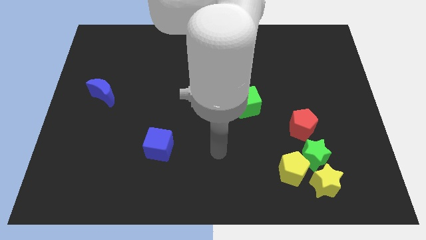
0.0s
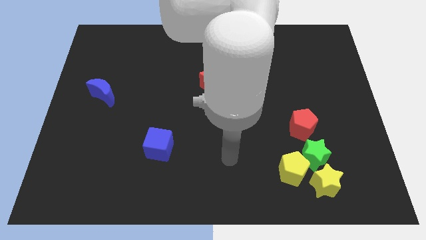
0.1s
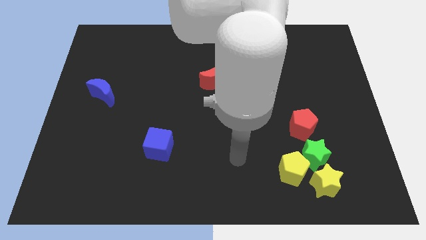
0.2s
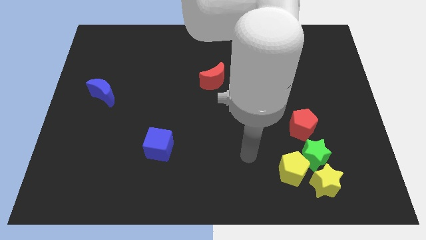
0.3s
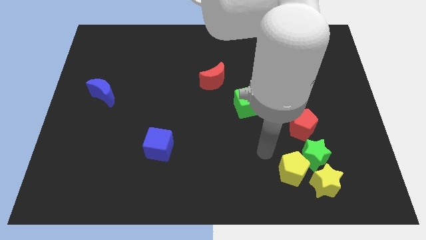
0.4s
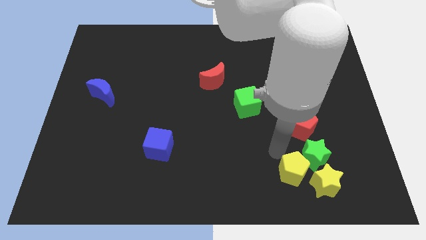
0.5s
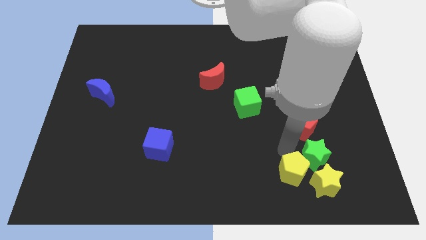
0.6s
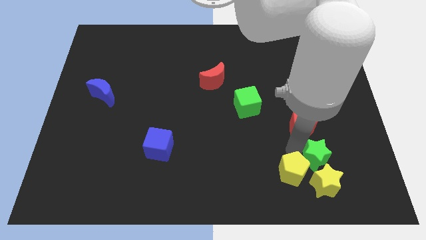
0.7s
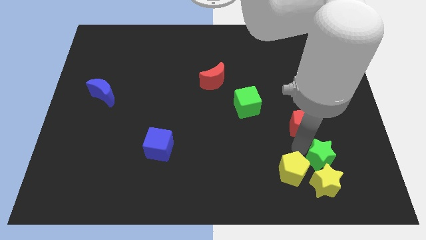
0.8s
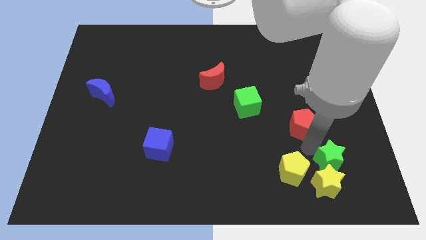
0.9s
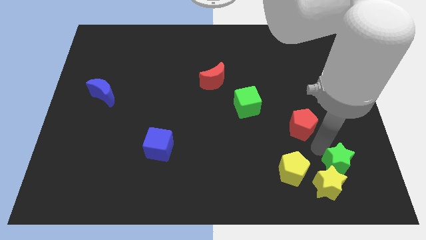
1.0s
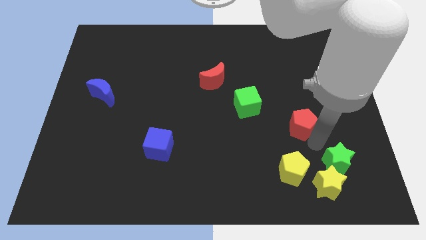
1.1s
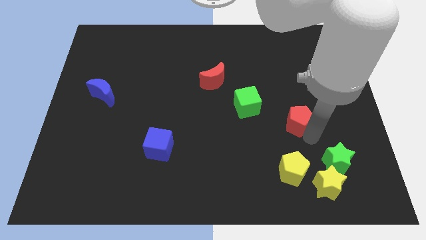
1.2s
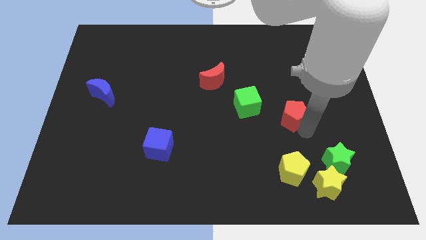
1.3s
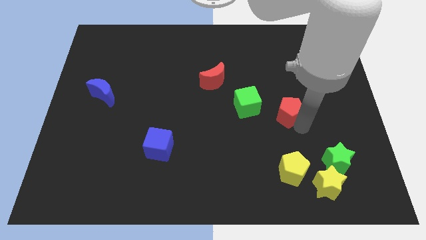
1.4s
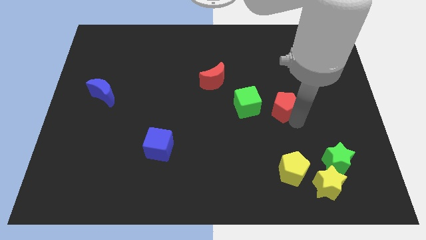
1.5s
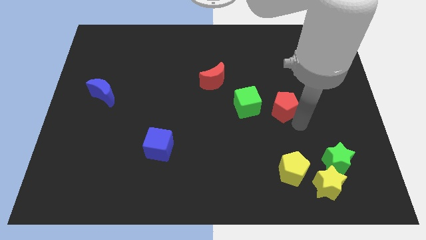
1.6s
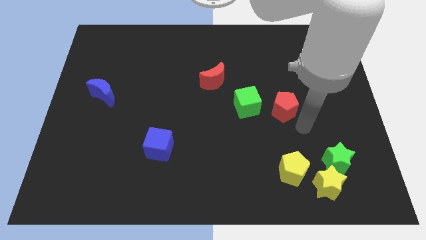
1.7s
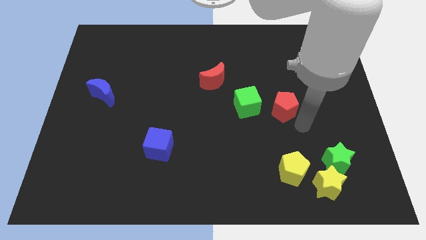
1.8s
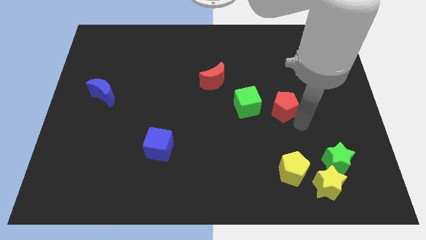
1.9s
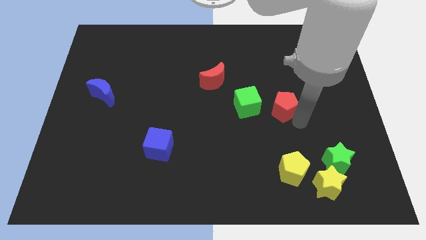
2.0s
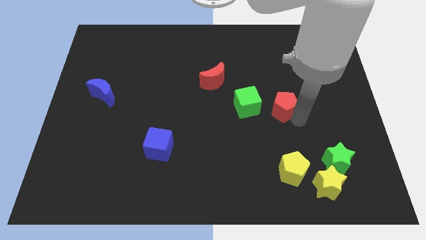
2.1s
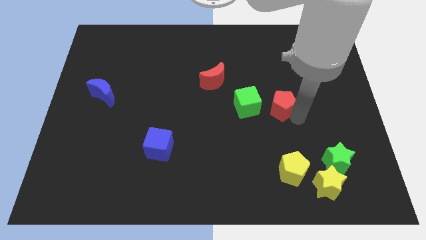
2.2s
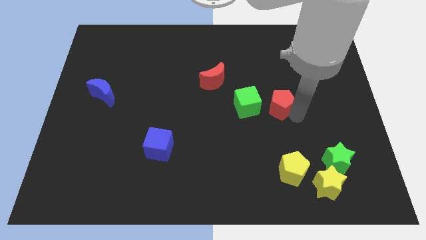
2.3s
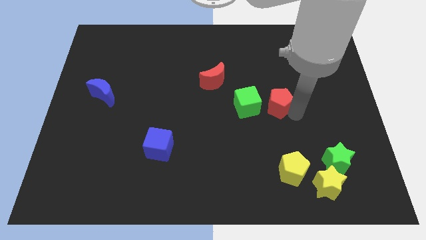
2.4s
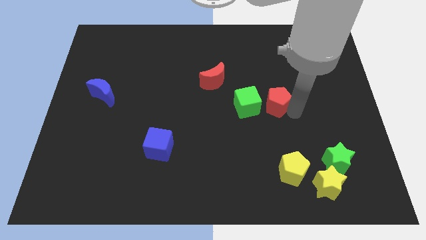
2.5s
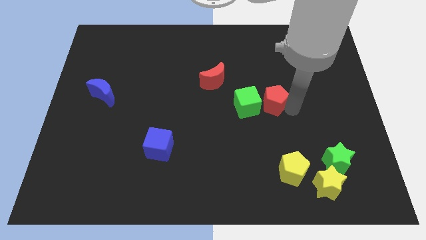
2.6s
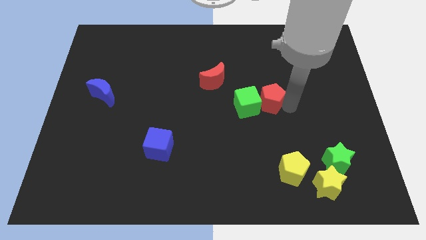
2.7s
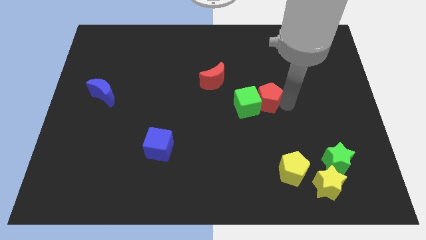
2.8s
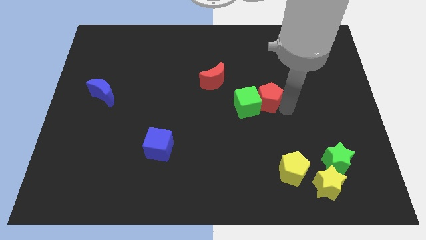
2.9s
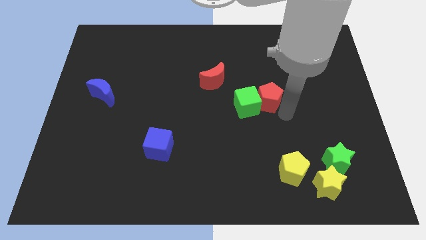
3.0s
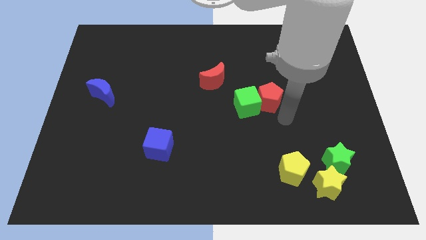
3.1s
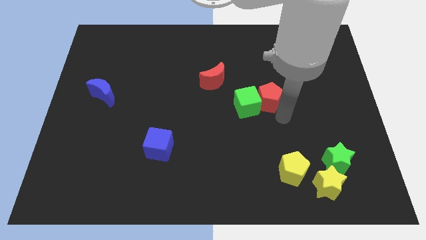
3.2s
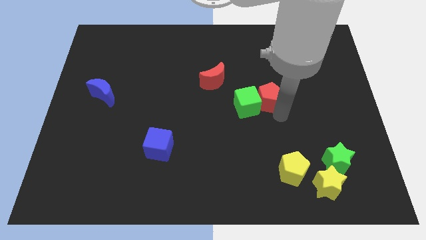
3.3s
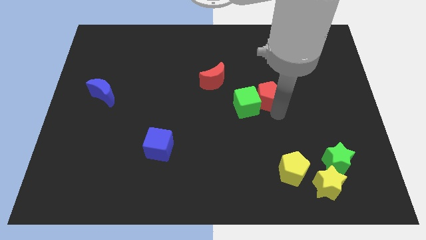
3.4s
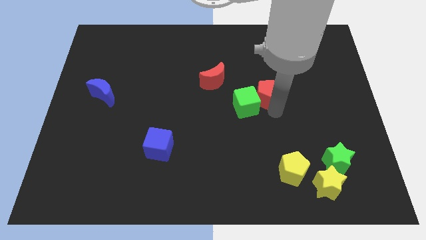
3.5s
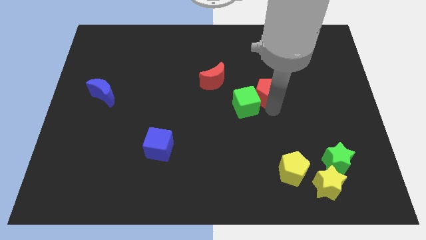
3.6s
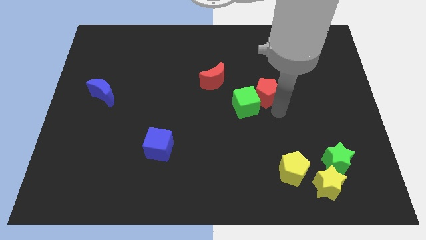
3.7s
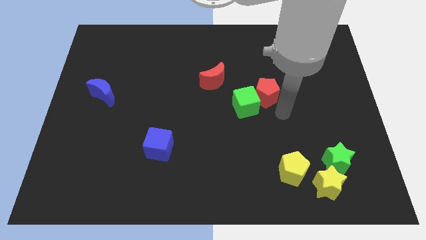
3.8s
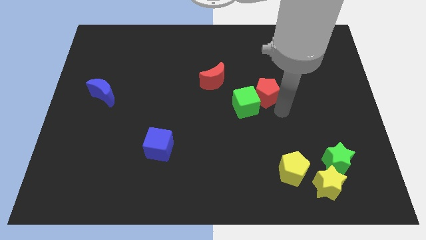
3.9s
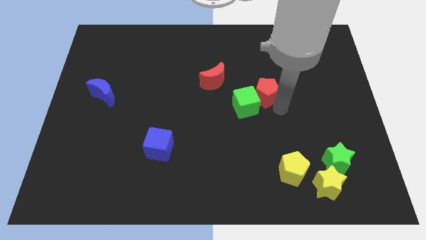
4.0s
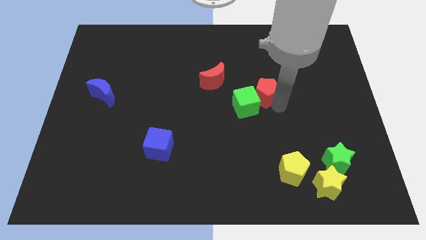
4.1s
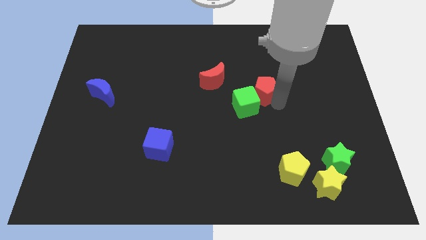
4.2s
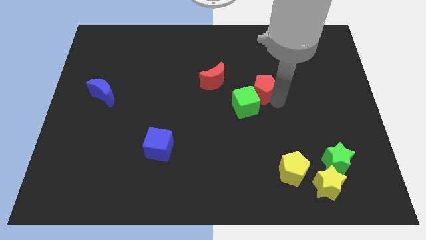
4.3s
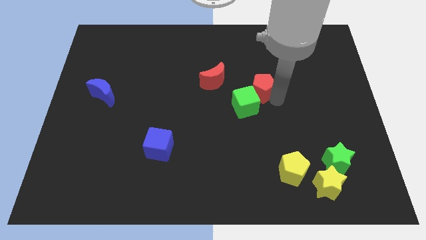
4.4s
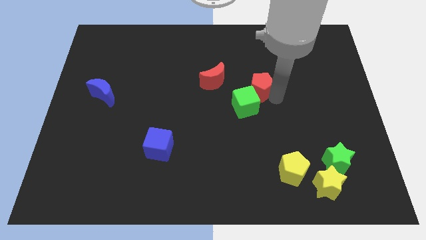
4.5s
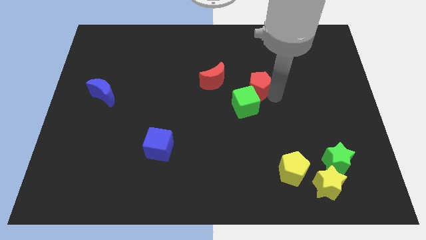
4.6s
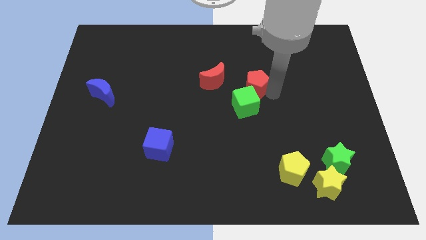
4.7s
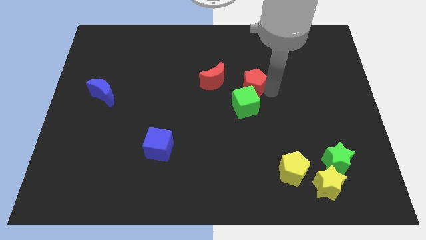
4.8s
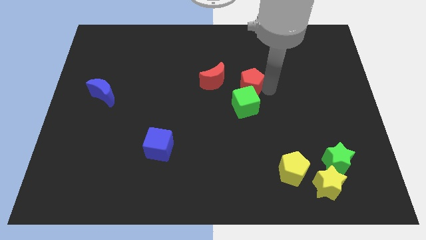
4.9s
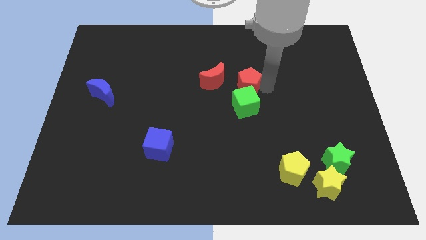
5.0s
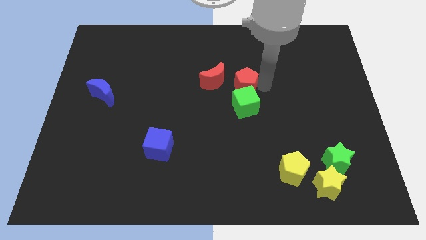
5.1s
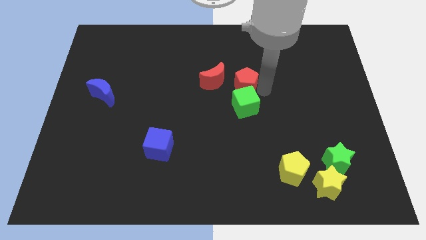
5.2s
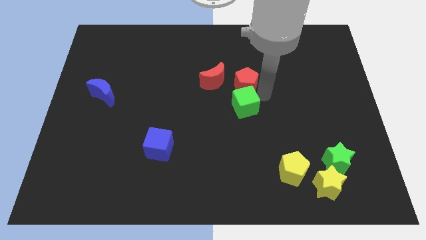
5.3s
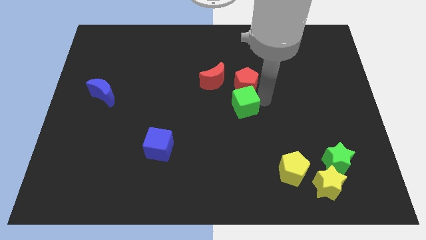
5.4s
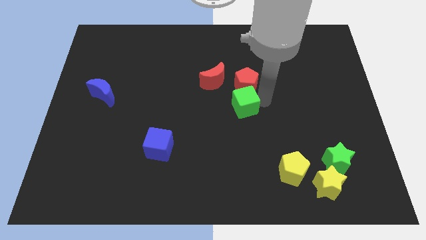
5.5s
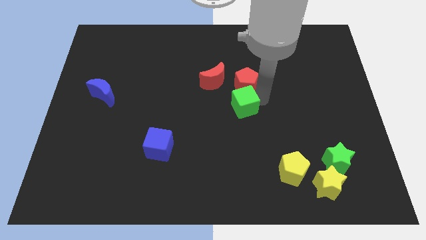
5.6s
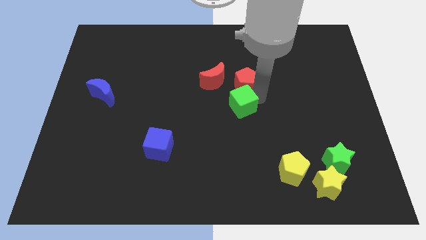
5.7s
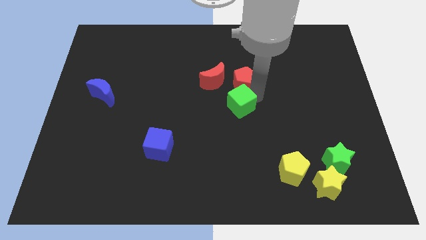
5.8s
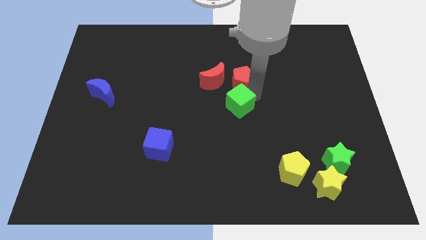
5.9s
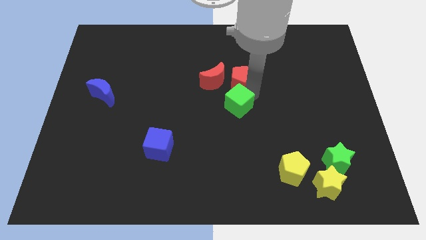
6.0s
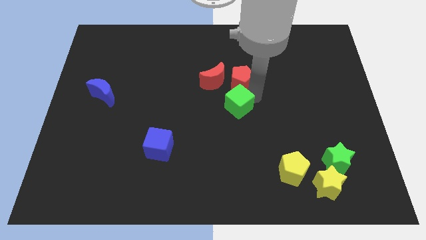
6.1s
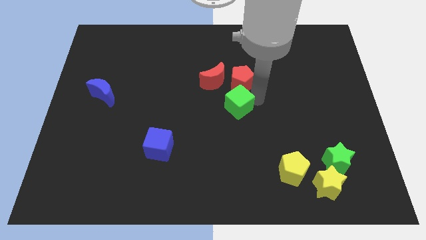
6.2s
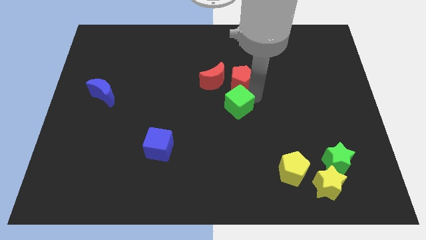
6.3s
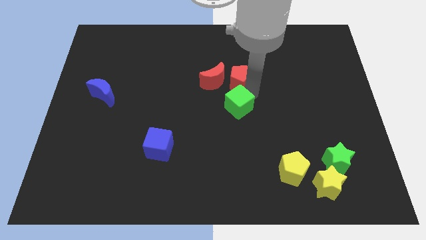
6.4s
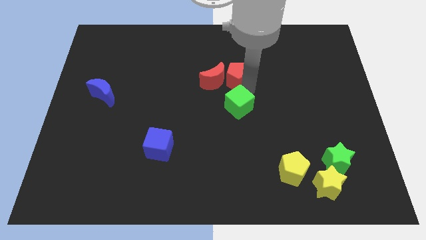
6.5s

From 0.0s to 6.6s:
move the red pentagon up and left

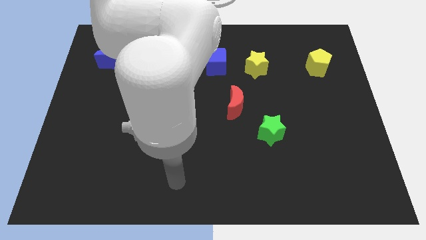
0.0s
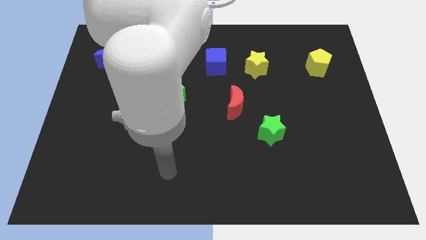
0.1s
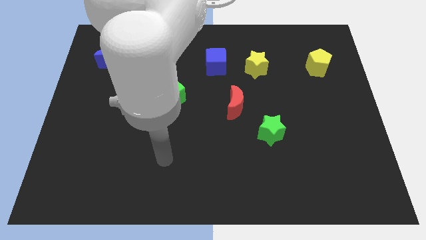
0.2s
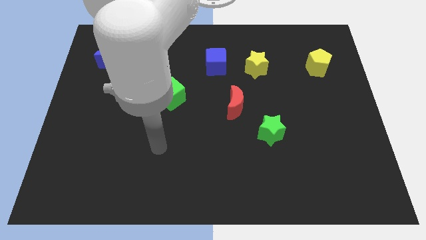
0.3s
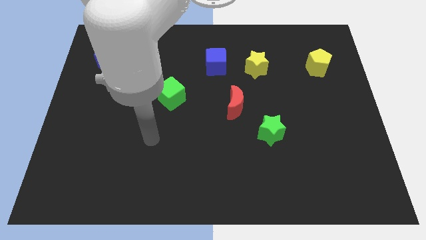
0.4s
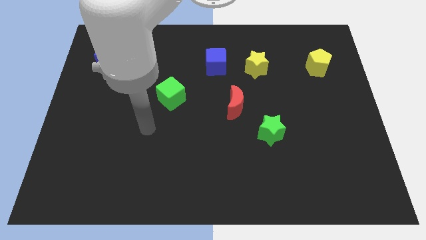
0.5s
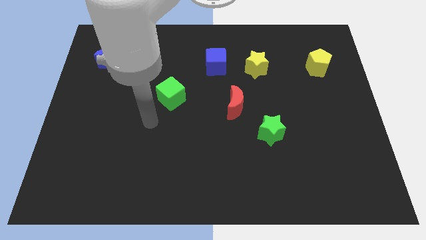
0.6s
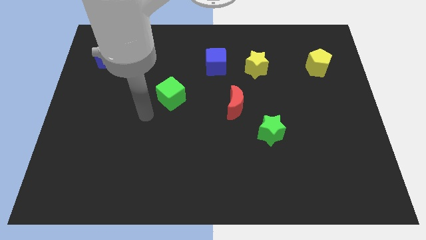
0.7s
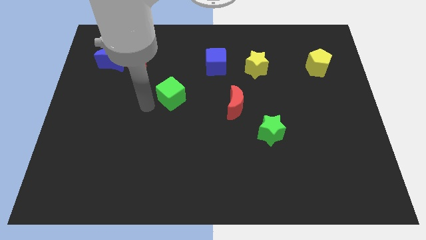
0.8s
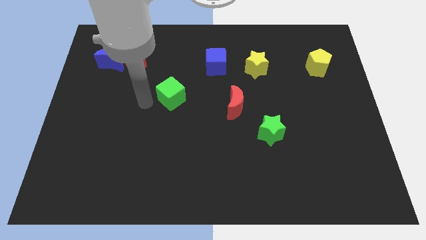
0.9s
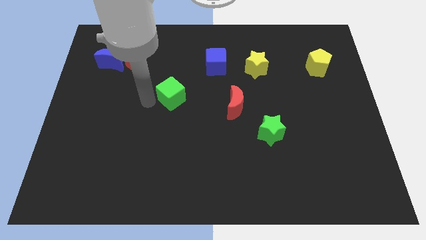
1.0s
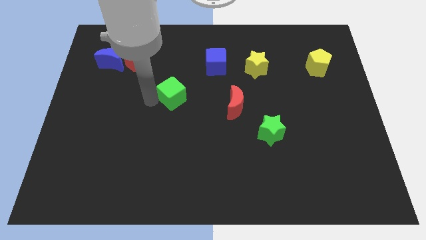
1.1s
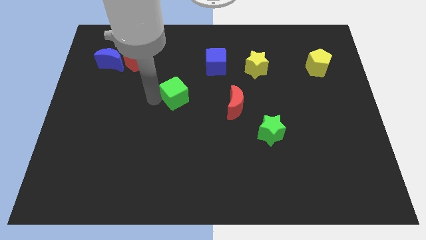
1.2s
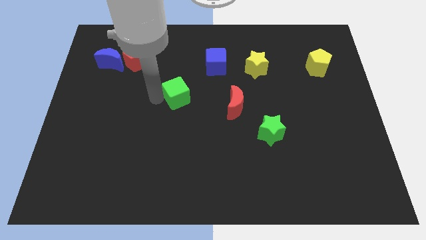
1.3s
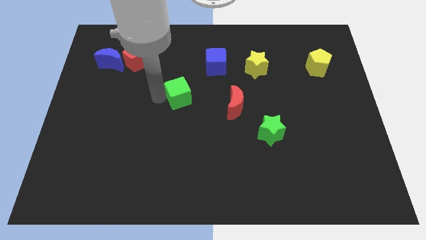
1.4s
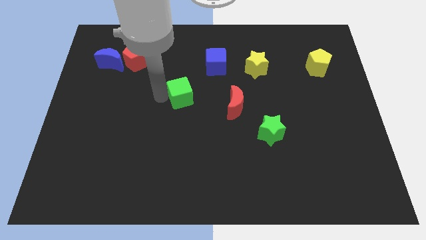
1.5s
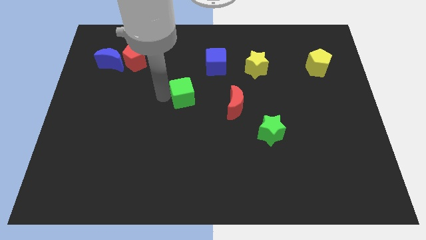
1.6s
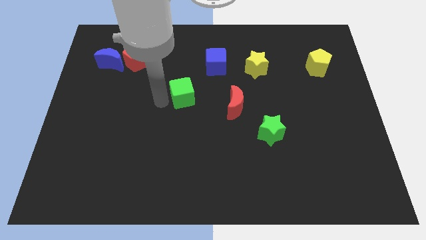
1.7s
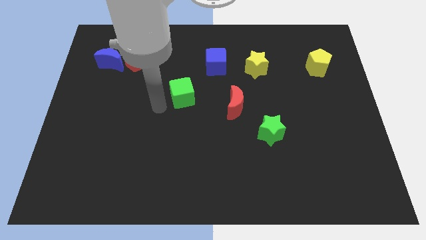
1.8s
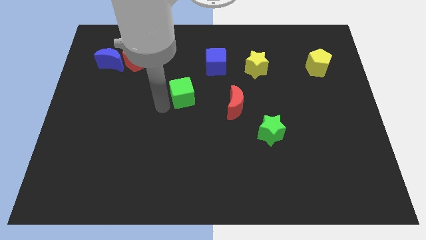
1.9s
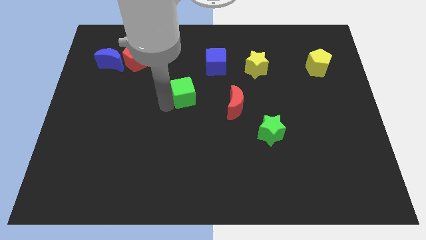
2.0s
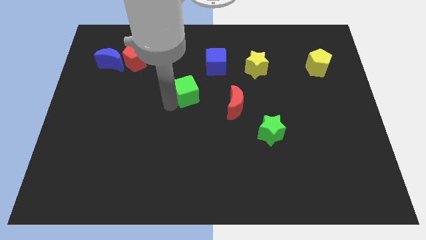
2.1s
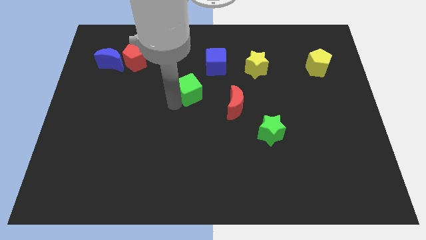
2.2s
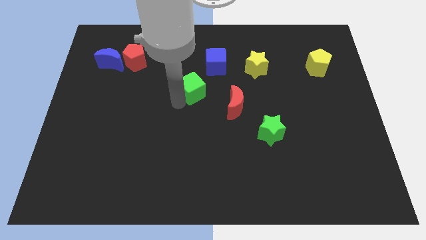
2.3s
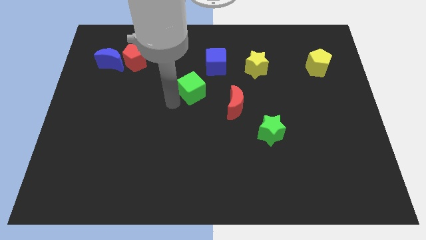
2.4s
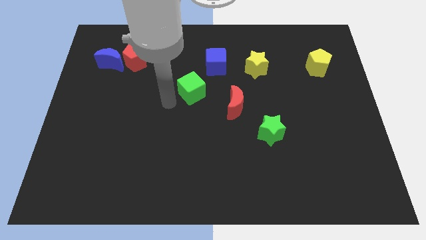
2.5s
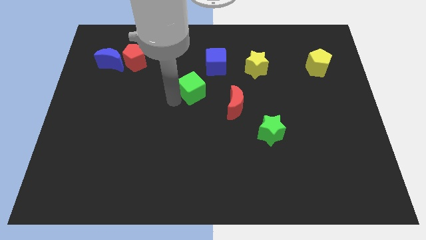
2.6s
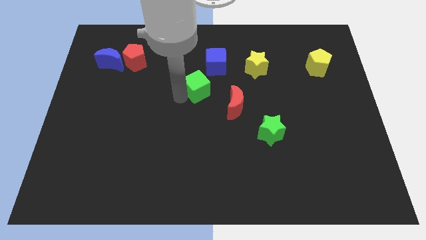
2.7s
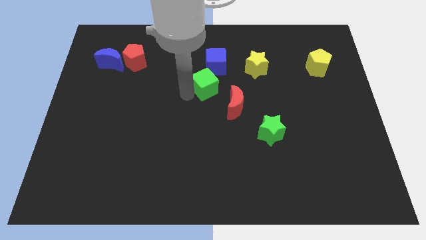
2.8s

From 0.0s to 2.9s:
slide the green cube diagonally upwards and right somewhat
